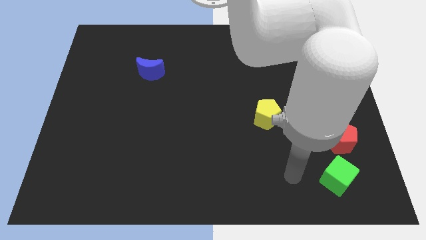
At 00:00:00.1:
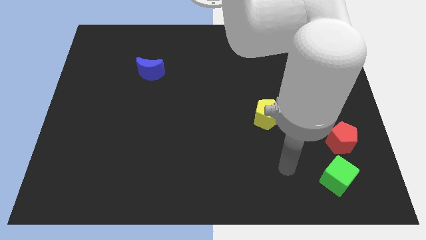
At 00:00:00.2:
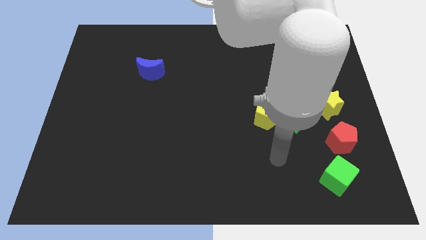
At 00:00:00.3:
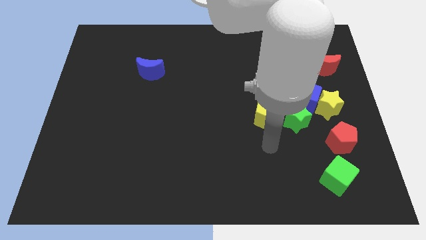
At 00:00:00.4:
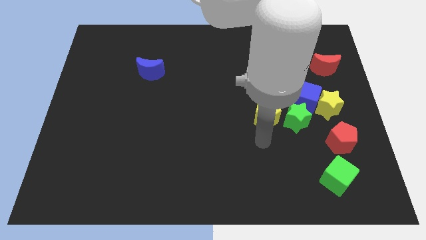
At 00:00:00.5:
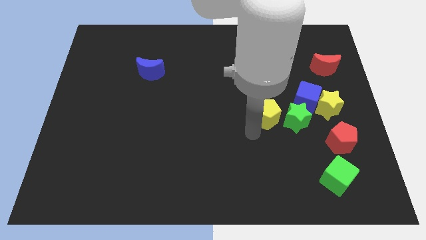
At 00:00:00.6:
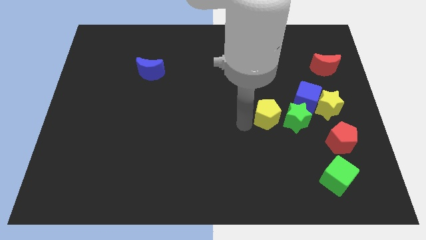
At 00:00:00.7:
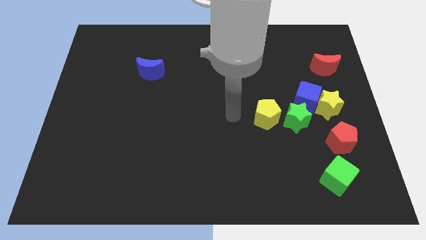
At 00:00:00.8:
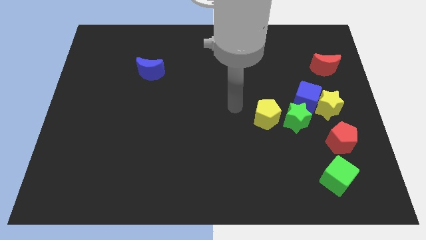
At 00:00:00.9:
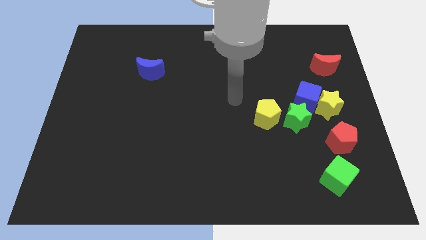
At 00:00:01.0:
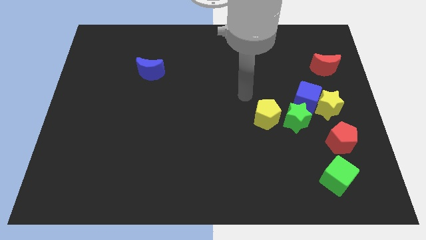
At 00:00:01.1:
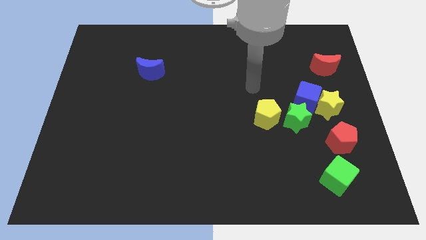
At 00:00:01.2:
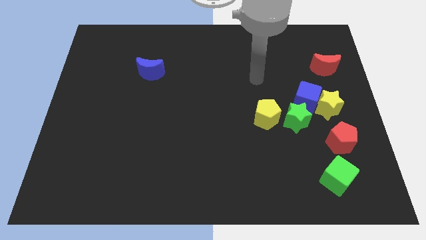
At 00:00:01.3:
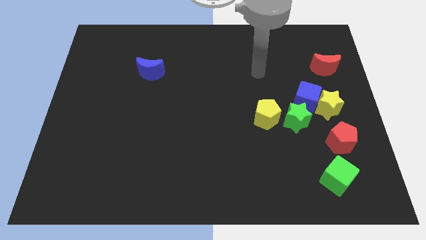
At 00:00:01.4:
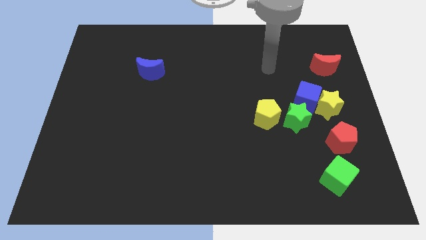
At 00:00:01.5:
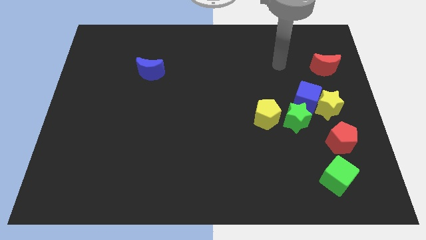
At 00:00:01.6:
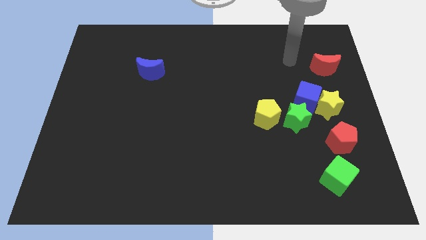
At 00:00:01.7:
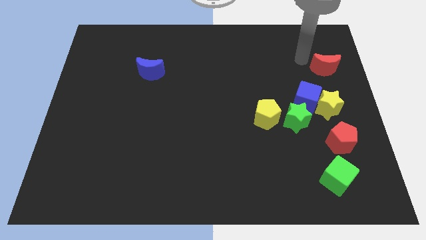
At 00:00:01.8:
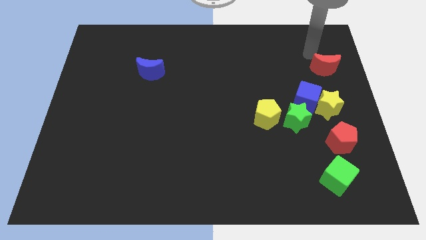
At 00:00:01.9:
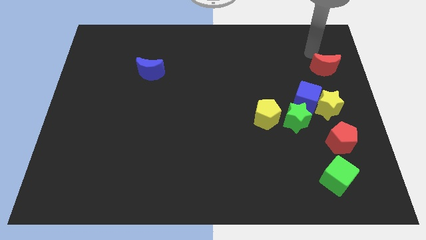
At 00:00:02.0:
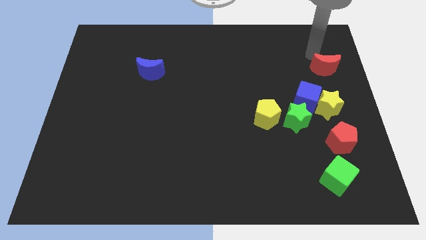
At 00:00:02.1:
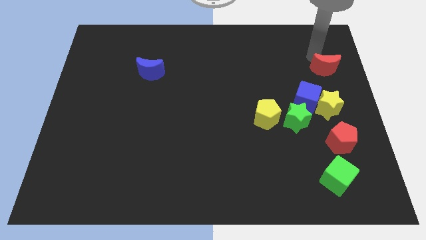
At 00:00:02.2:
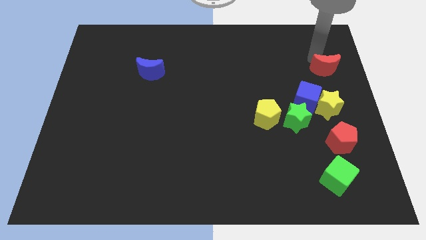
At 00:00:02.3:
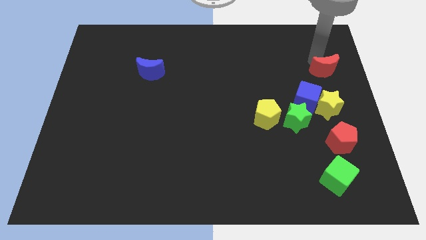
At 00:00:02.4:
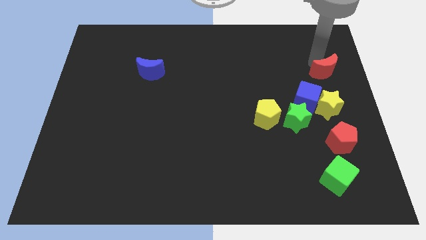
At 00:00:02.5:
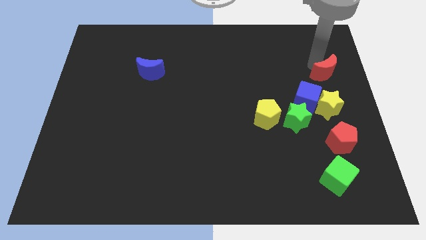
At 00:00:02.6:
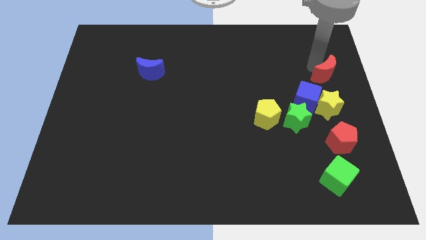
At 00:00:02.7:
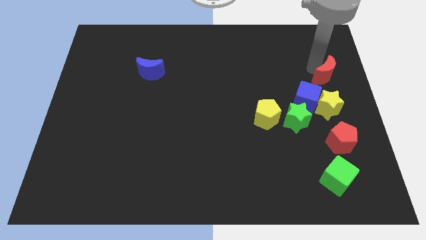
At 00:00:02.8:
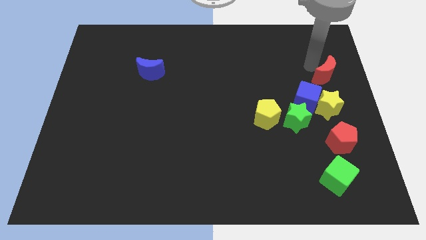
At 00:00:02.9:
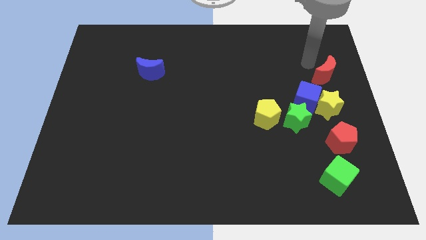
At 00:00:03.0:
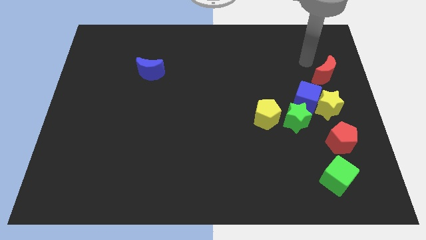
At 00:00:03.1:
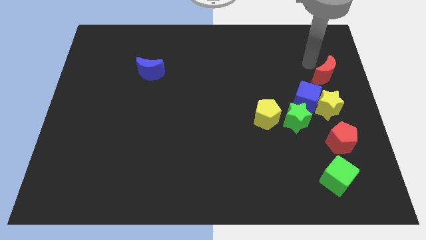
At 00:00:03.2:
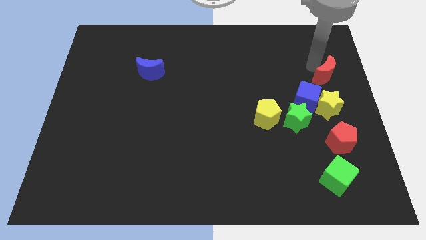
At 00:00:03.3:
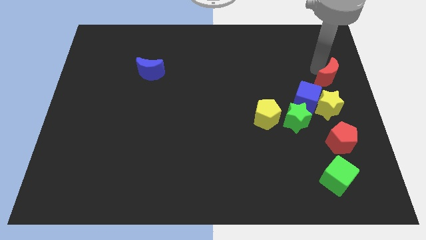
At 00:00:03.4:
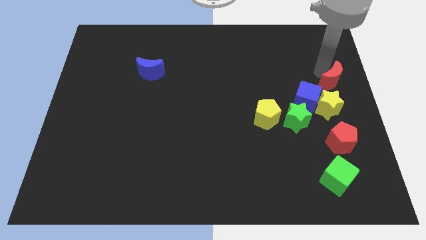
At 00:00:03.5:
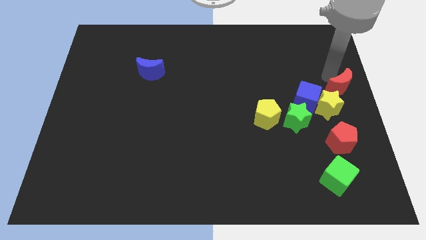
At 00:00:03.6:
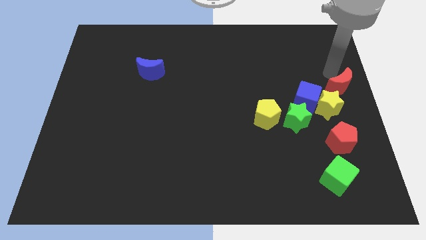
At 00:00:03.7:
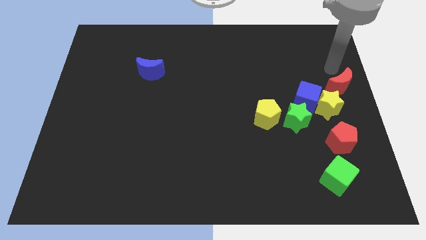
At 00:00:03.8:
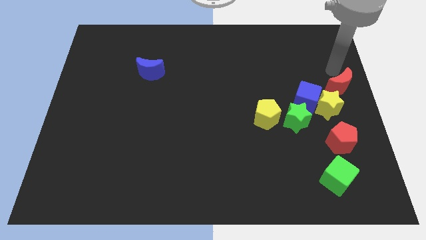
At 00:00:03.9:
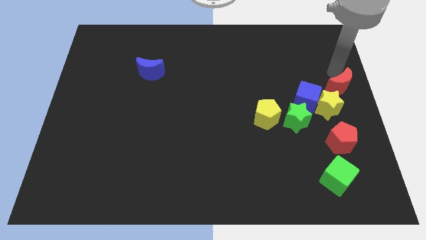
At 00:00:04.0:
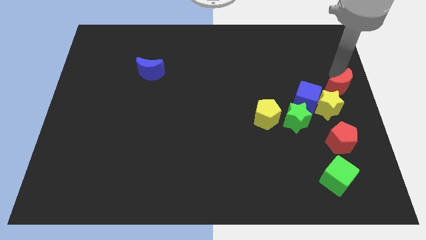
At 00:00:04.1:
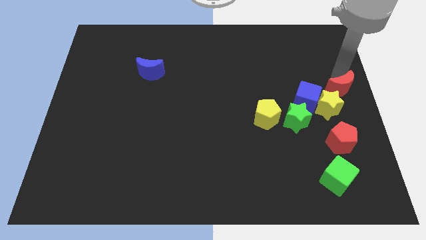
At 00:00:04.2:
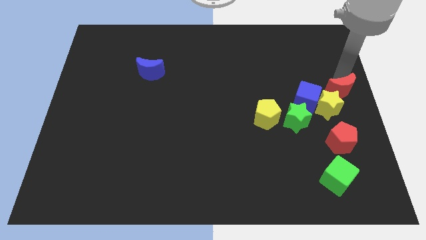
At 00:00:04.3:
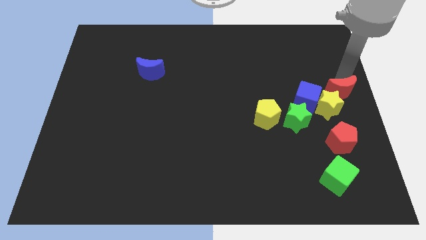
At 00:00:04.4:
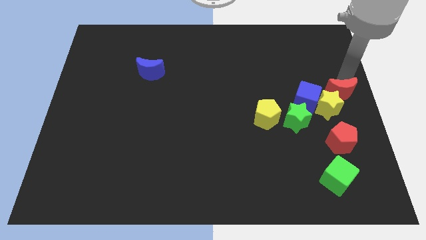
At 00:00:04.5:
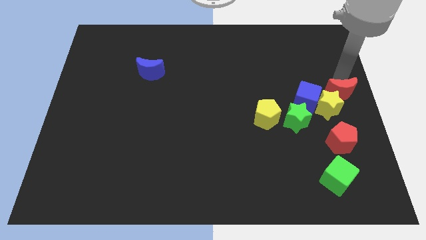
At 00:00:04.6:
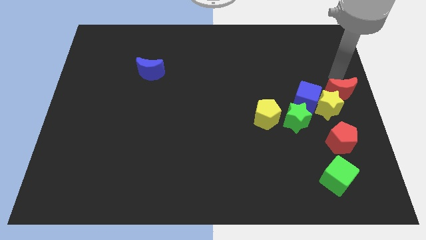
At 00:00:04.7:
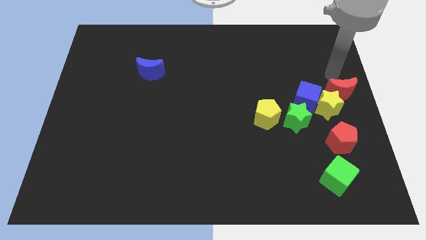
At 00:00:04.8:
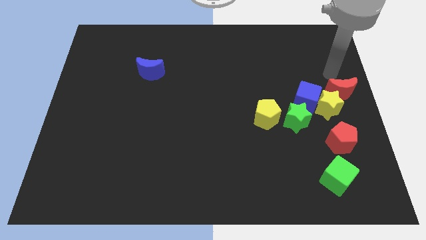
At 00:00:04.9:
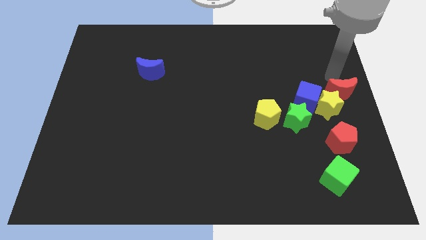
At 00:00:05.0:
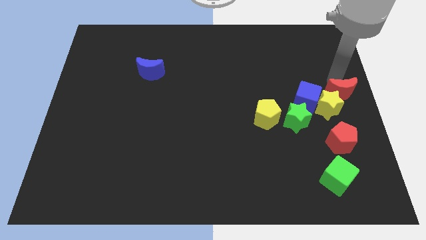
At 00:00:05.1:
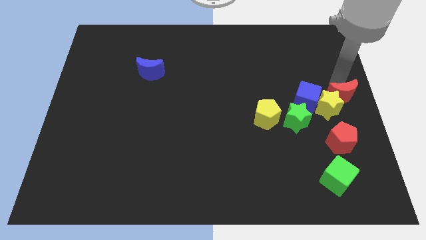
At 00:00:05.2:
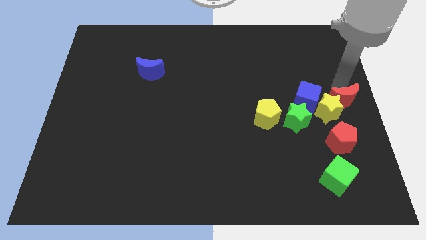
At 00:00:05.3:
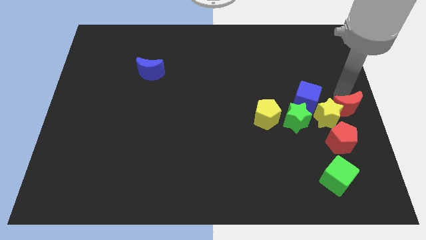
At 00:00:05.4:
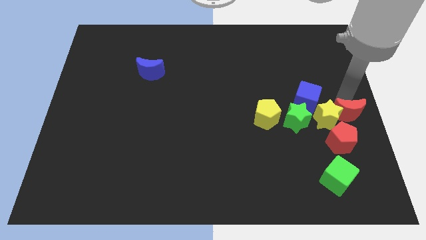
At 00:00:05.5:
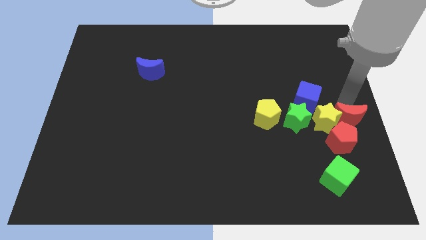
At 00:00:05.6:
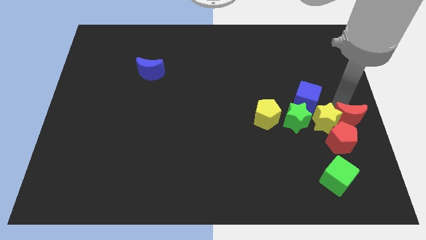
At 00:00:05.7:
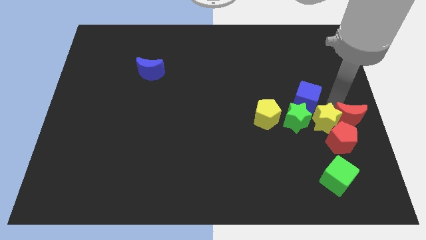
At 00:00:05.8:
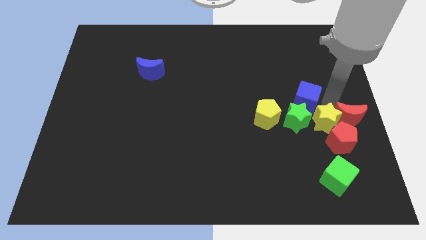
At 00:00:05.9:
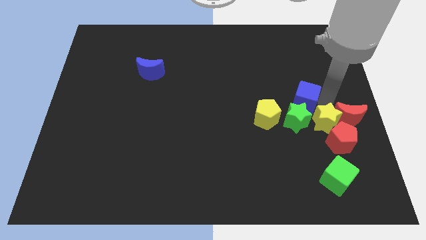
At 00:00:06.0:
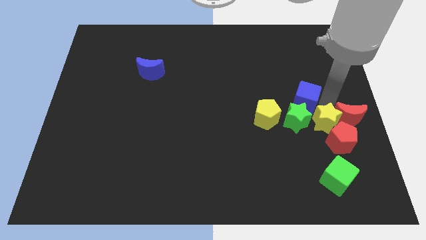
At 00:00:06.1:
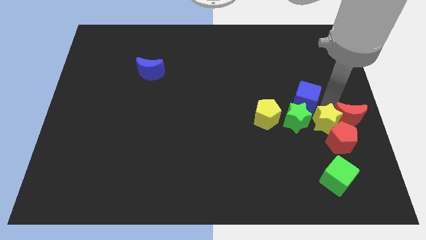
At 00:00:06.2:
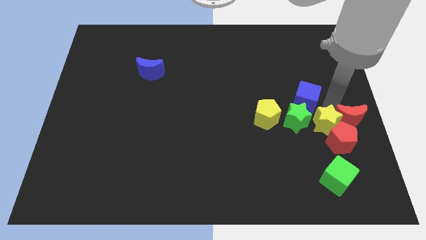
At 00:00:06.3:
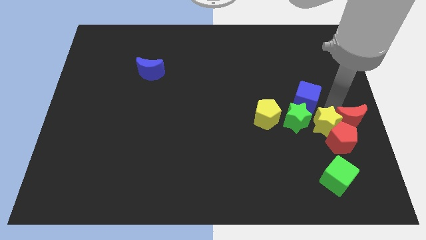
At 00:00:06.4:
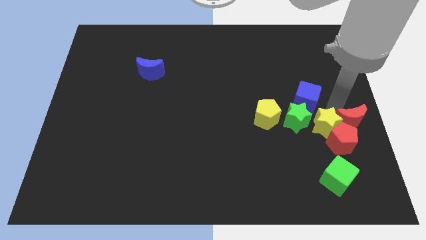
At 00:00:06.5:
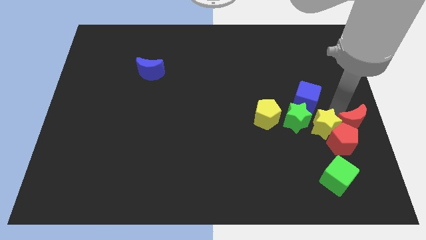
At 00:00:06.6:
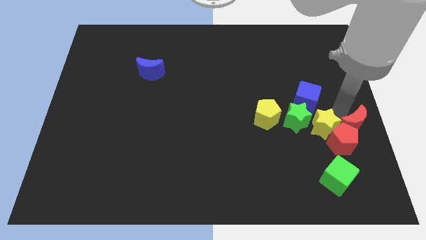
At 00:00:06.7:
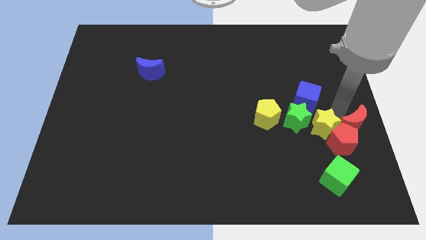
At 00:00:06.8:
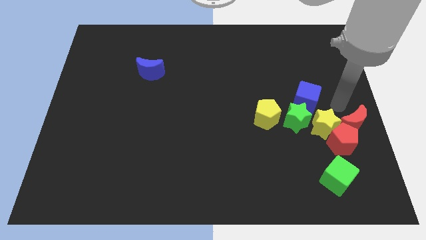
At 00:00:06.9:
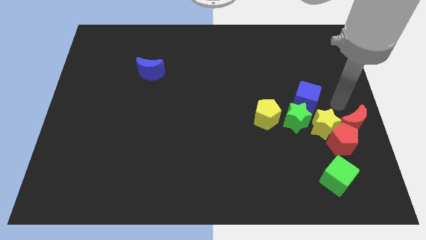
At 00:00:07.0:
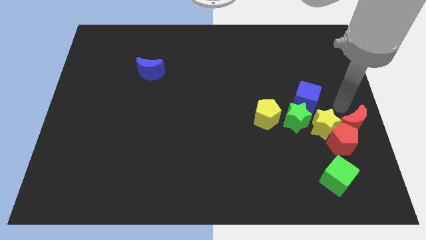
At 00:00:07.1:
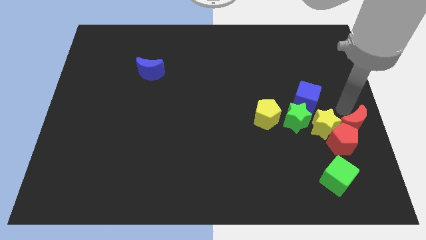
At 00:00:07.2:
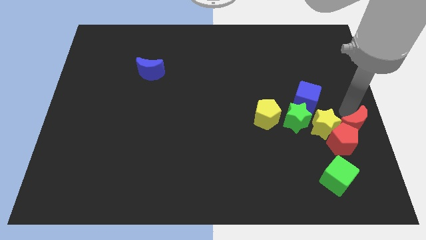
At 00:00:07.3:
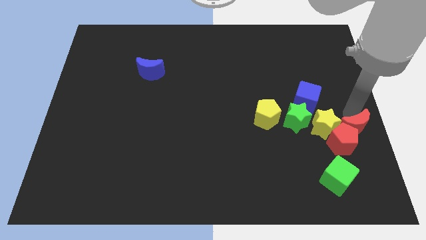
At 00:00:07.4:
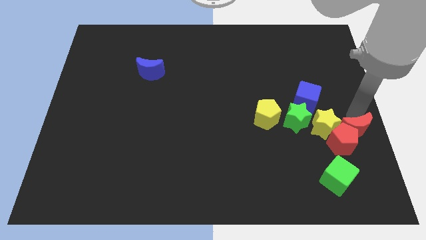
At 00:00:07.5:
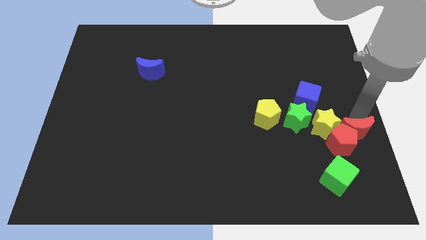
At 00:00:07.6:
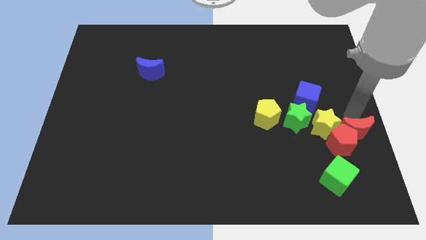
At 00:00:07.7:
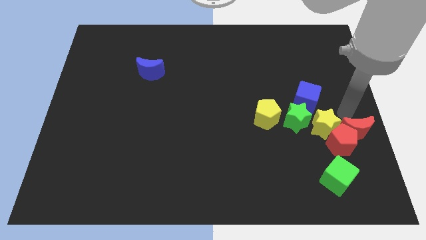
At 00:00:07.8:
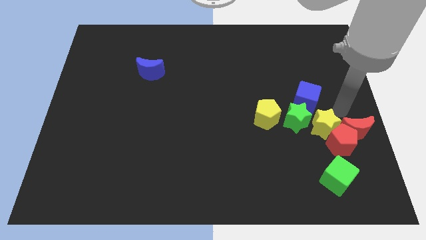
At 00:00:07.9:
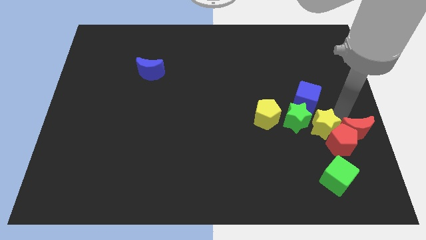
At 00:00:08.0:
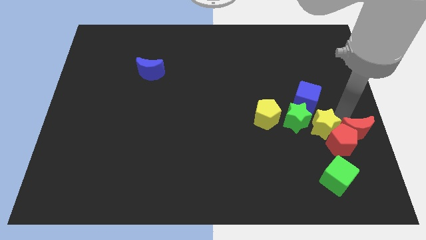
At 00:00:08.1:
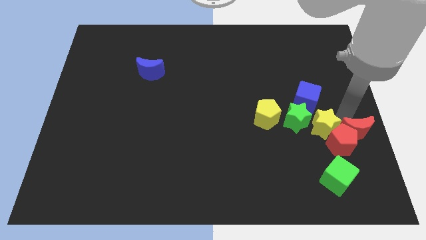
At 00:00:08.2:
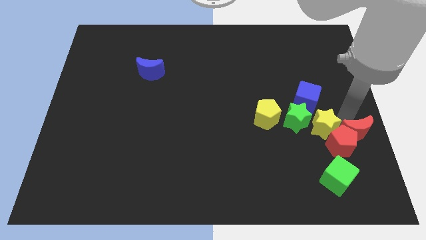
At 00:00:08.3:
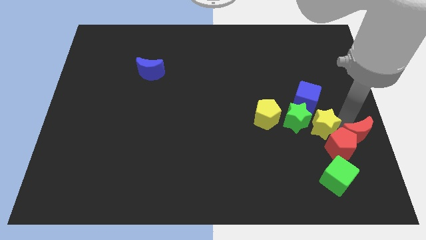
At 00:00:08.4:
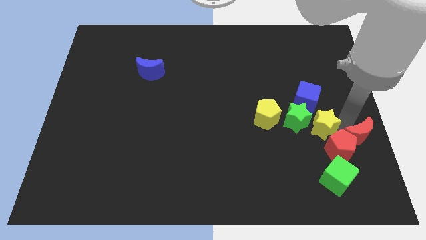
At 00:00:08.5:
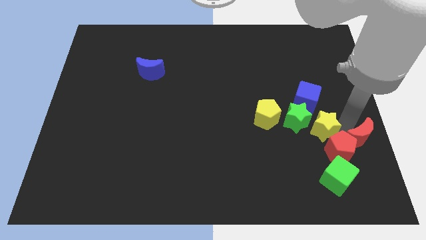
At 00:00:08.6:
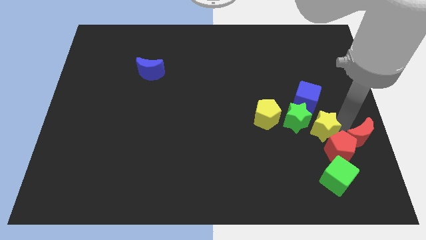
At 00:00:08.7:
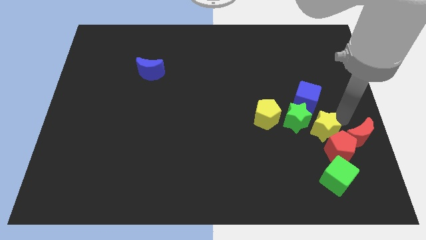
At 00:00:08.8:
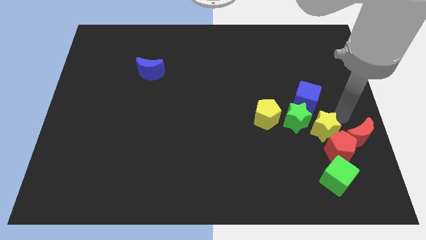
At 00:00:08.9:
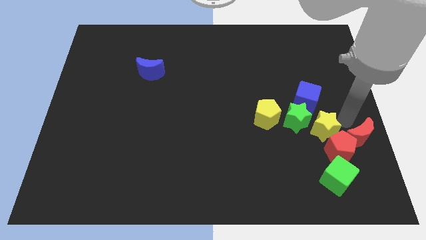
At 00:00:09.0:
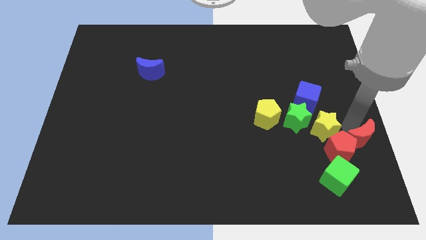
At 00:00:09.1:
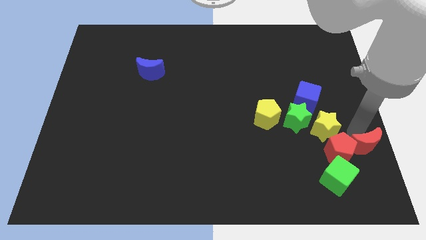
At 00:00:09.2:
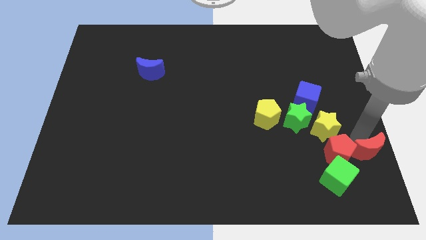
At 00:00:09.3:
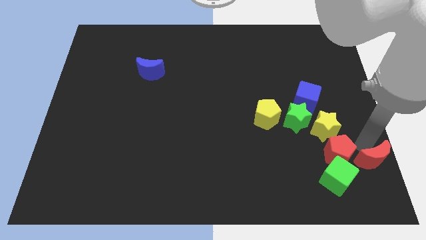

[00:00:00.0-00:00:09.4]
push the red moon to the bottom right corner
